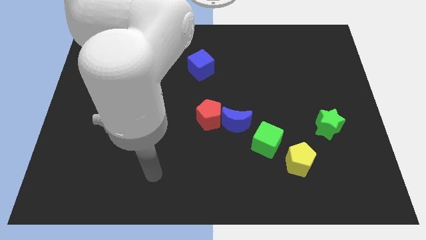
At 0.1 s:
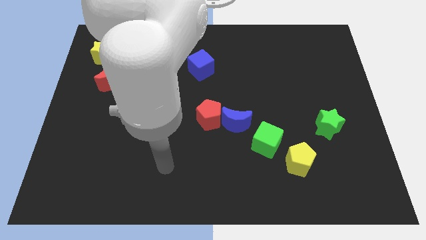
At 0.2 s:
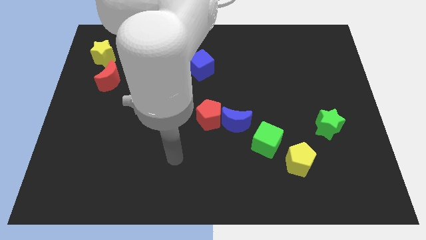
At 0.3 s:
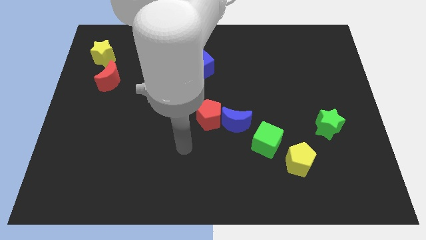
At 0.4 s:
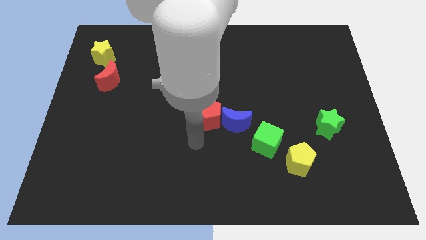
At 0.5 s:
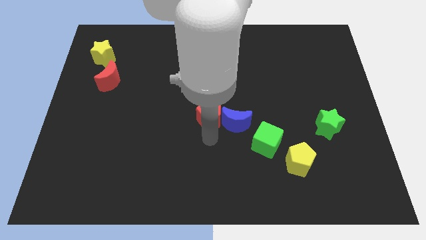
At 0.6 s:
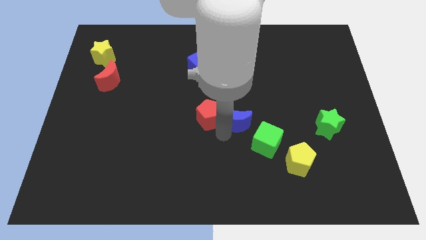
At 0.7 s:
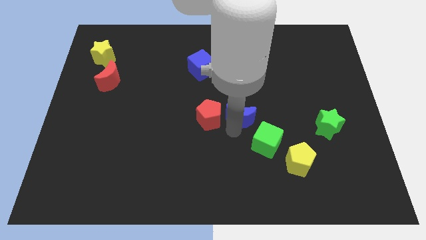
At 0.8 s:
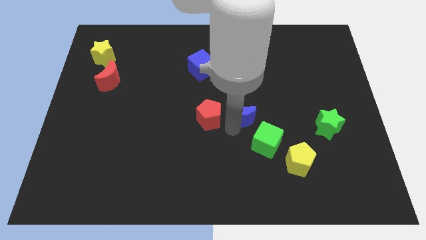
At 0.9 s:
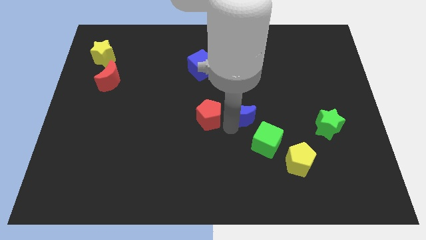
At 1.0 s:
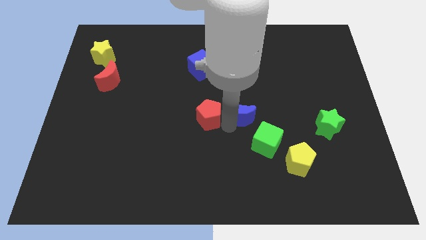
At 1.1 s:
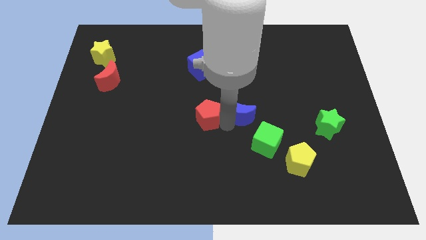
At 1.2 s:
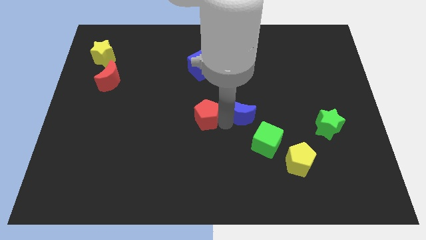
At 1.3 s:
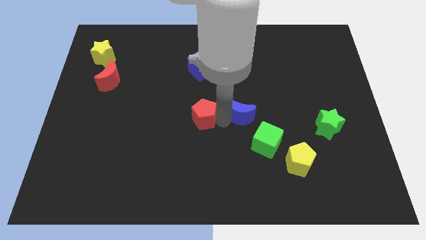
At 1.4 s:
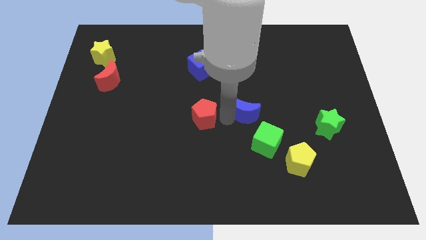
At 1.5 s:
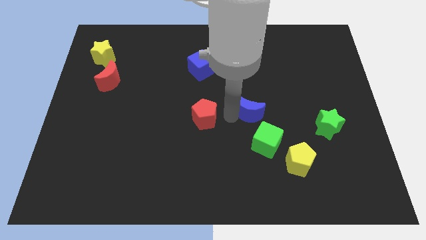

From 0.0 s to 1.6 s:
separate the red pentagon from the blue moon

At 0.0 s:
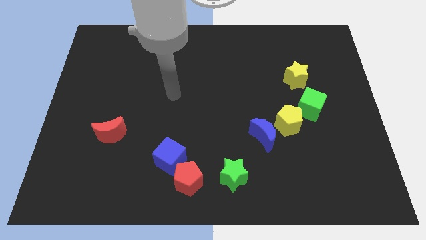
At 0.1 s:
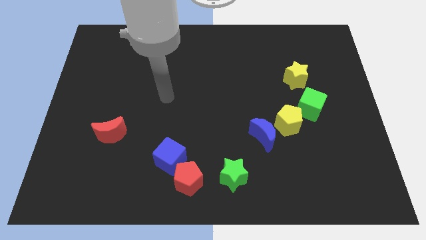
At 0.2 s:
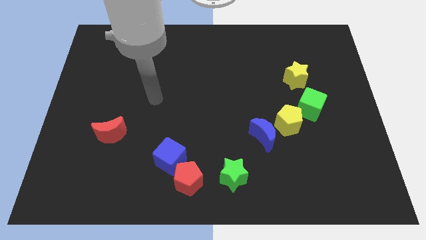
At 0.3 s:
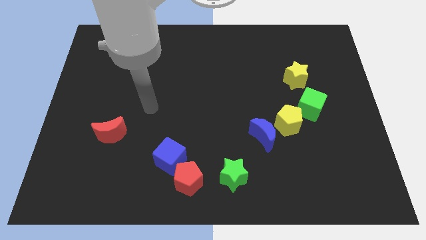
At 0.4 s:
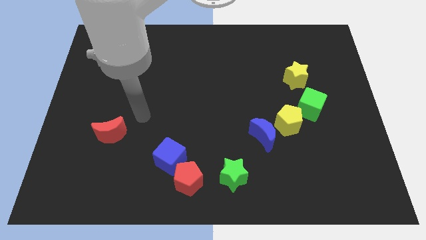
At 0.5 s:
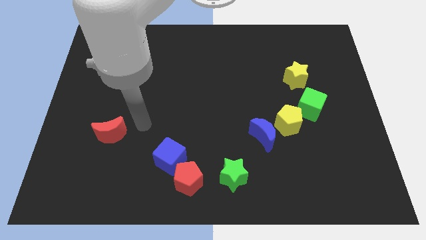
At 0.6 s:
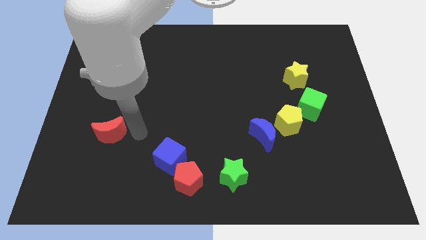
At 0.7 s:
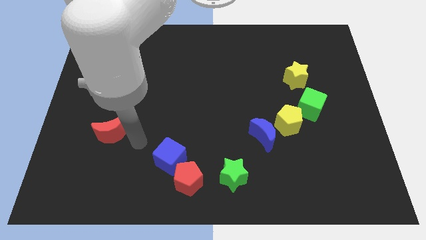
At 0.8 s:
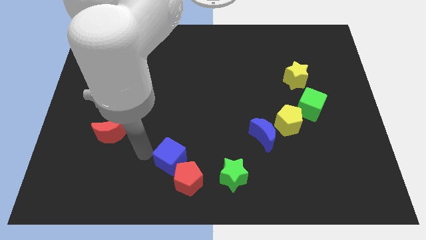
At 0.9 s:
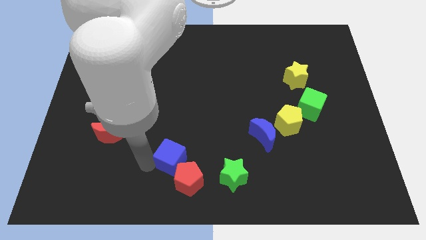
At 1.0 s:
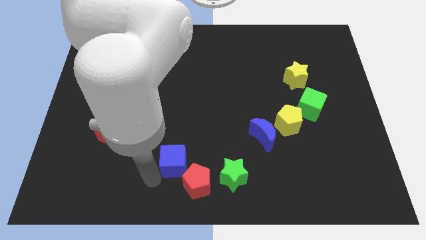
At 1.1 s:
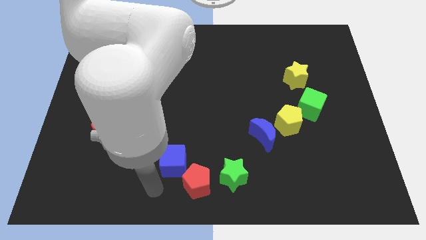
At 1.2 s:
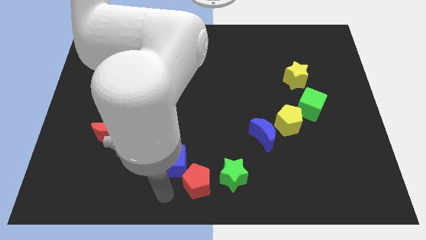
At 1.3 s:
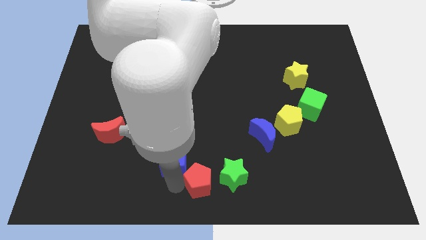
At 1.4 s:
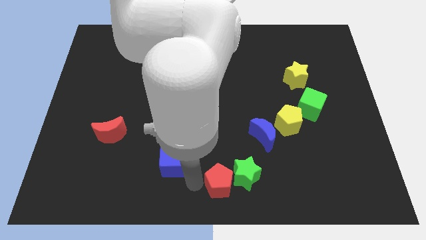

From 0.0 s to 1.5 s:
separate the blue cube from the red pentagon

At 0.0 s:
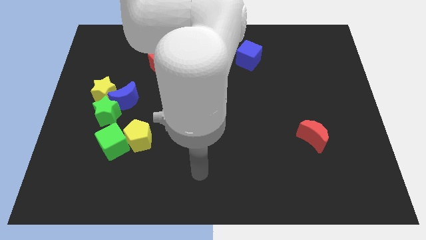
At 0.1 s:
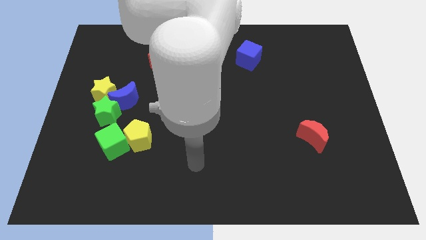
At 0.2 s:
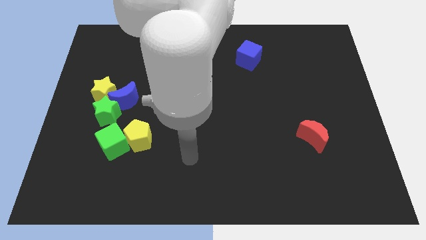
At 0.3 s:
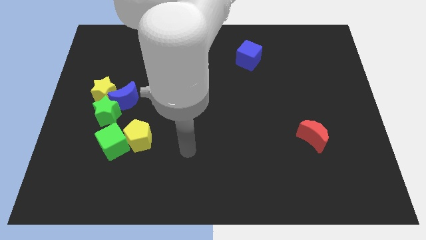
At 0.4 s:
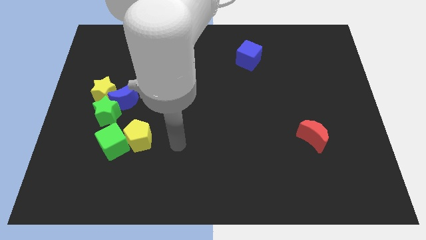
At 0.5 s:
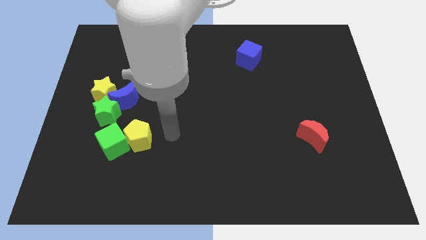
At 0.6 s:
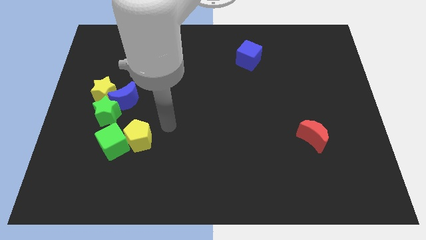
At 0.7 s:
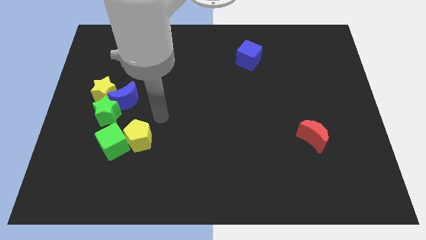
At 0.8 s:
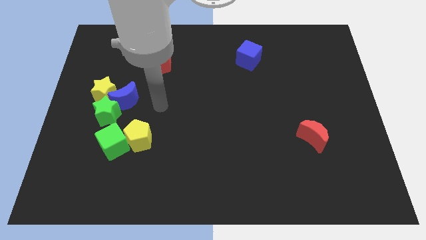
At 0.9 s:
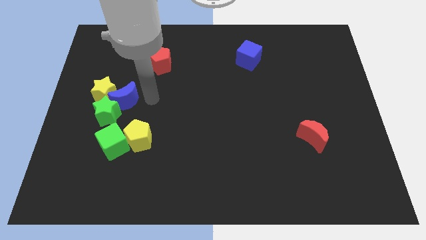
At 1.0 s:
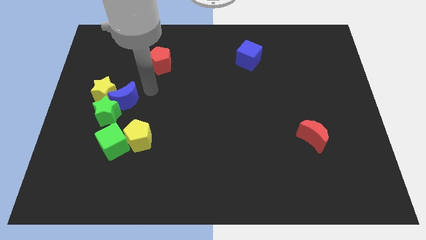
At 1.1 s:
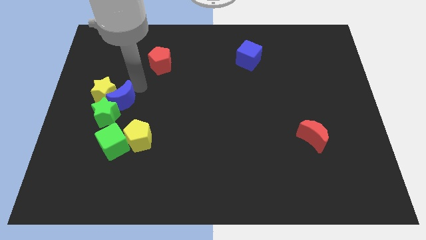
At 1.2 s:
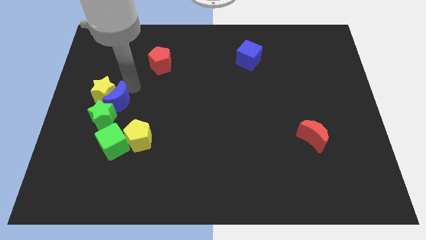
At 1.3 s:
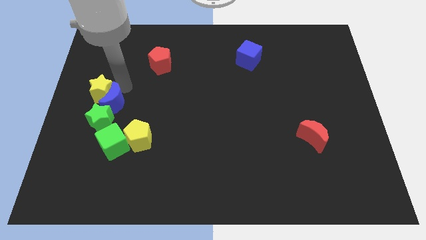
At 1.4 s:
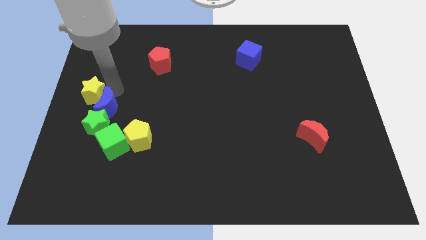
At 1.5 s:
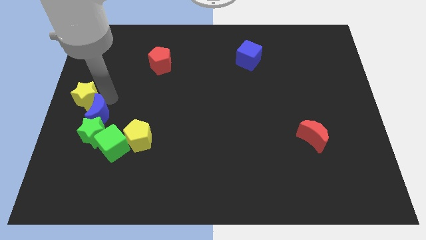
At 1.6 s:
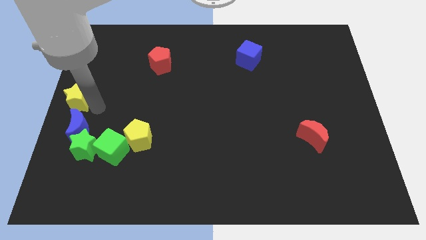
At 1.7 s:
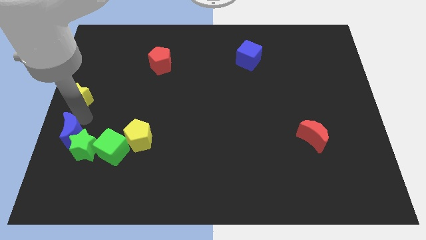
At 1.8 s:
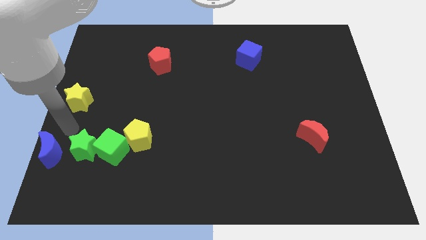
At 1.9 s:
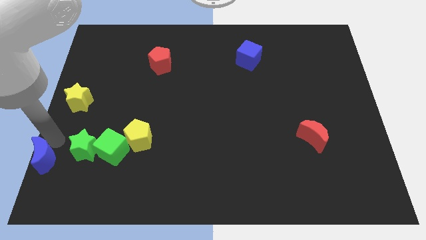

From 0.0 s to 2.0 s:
separate the blue moon from the green star and yellow star

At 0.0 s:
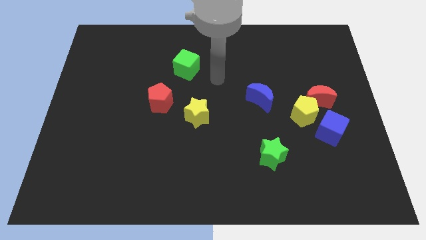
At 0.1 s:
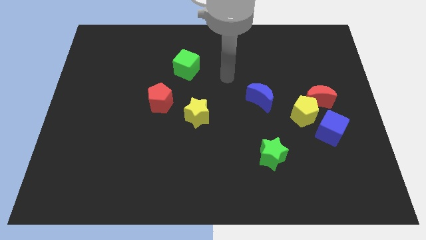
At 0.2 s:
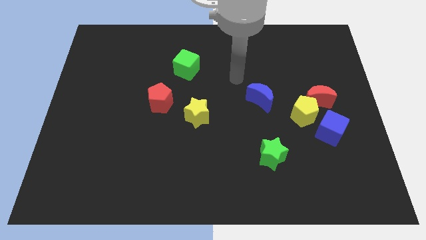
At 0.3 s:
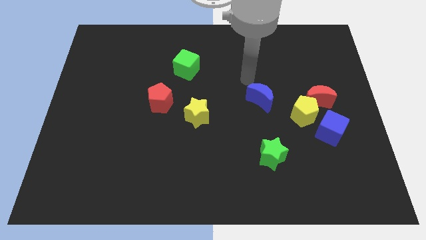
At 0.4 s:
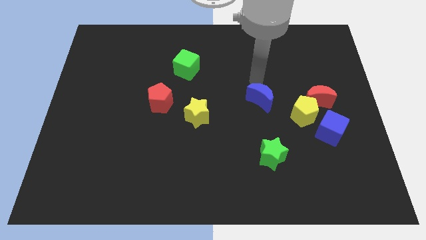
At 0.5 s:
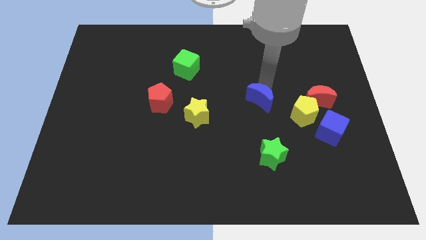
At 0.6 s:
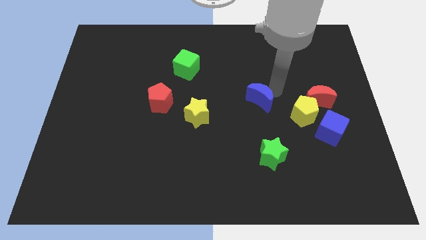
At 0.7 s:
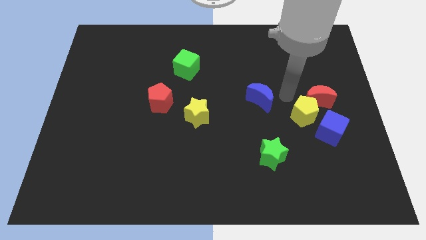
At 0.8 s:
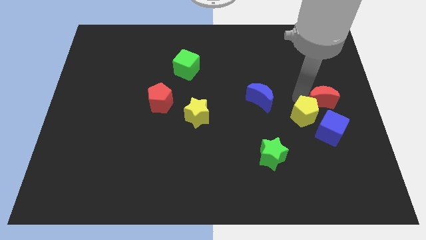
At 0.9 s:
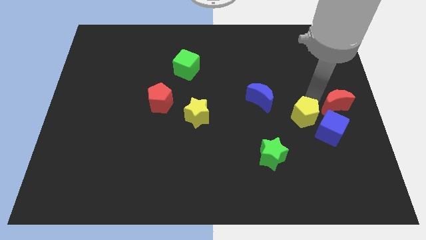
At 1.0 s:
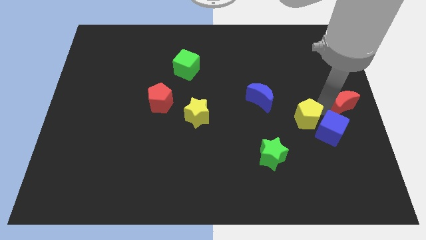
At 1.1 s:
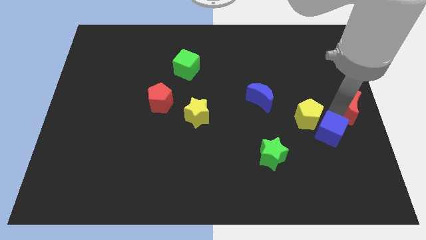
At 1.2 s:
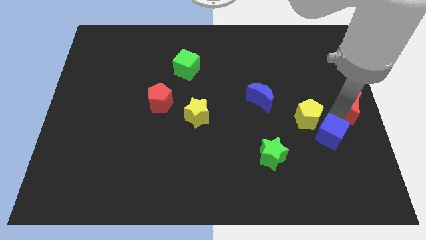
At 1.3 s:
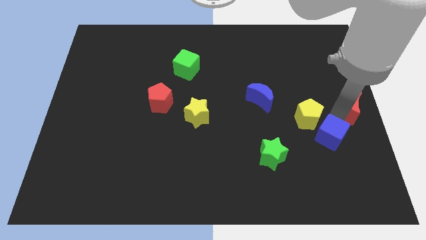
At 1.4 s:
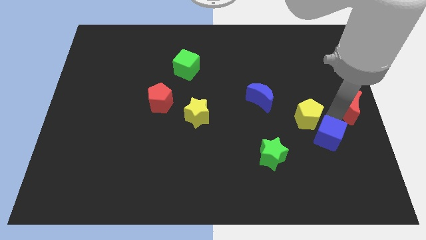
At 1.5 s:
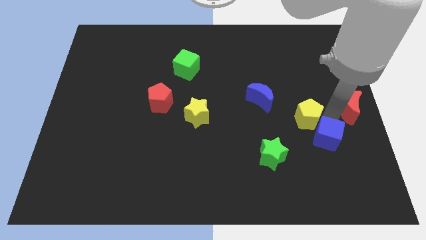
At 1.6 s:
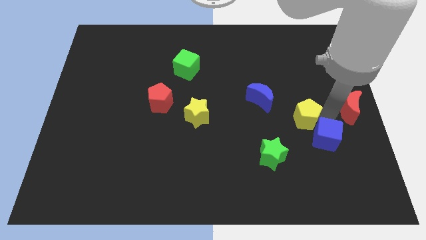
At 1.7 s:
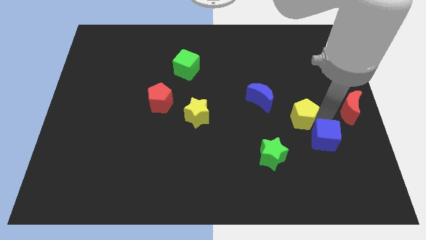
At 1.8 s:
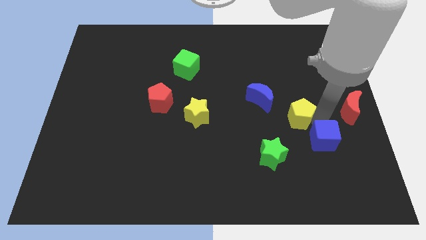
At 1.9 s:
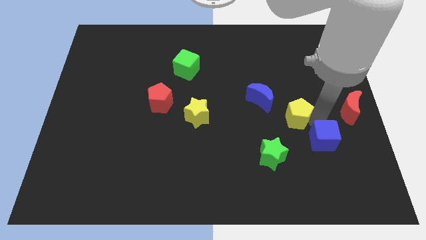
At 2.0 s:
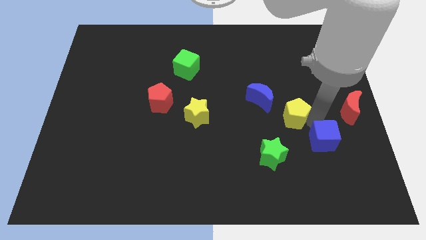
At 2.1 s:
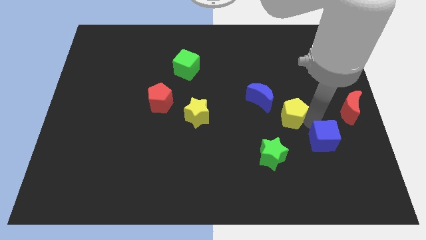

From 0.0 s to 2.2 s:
move the yellow pentagon away from the red moon and blue cube

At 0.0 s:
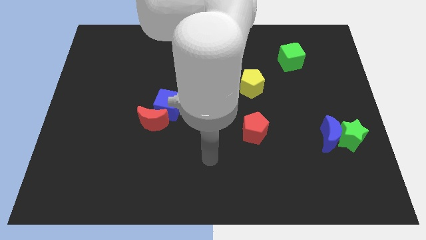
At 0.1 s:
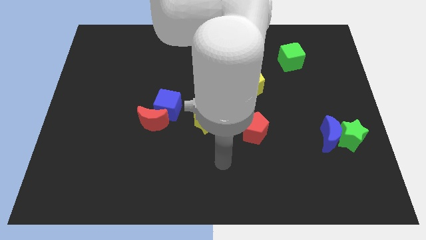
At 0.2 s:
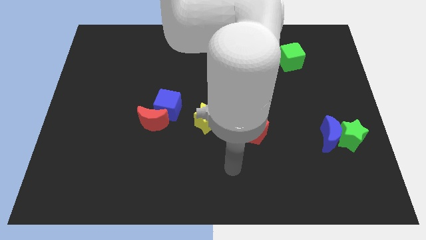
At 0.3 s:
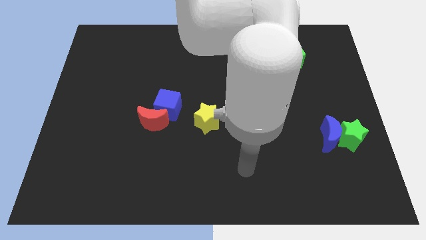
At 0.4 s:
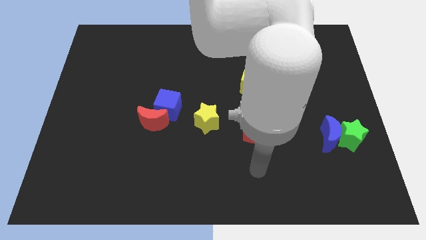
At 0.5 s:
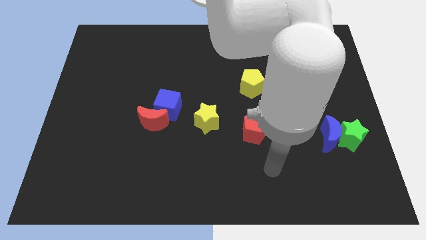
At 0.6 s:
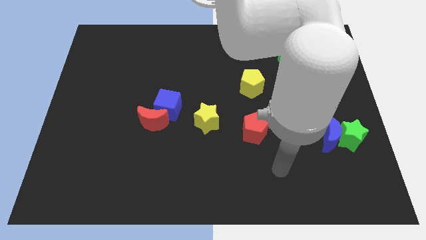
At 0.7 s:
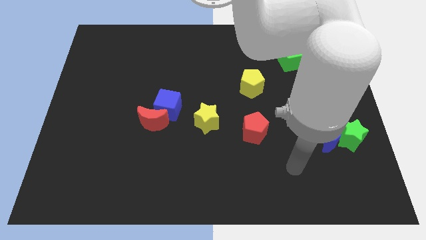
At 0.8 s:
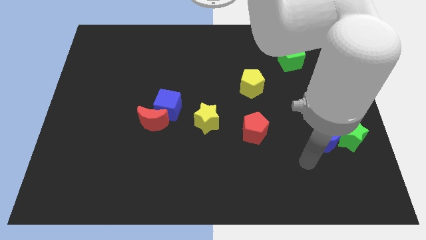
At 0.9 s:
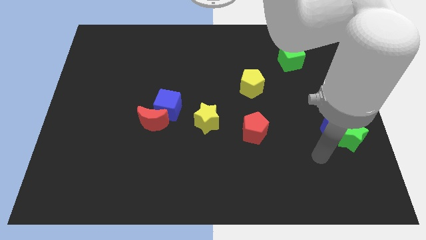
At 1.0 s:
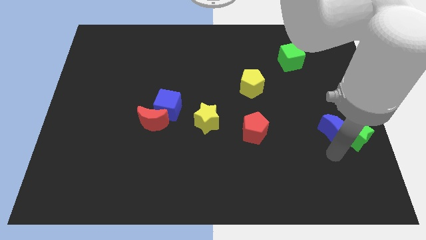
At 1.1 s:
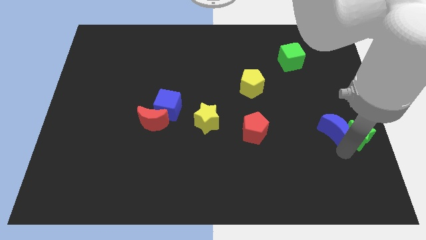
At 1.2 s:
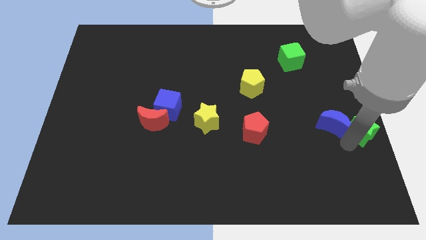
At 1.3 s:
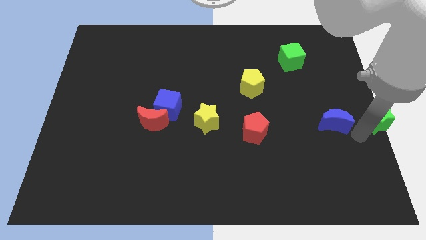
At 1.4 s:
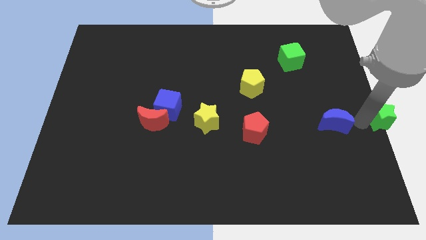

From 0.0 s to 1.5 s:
move the blue moon away from the green star

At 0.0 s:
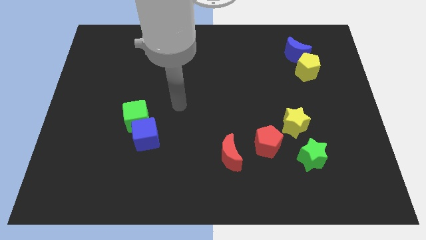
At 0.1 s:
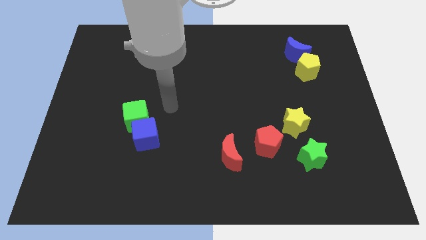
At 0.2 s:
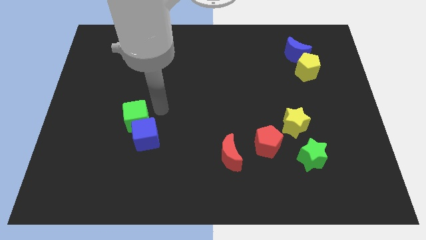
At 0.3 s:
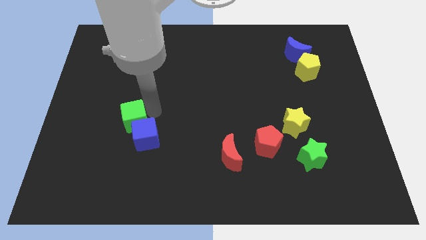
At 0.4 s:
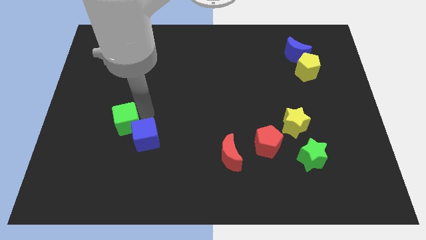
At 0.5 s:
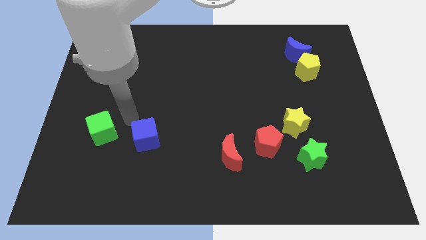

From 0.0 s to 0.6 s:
move the blue cube away from the green cube
